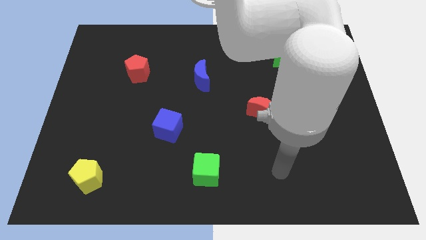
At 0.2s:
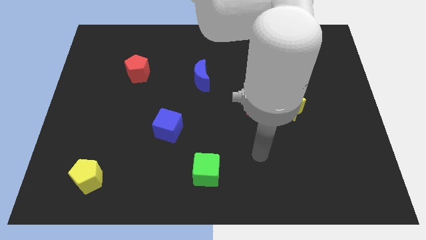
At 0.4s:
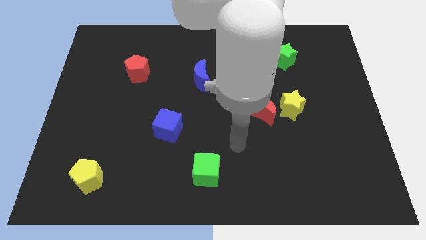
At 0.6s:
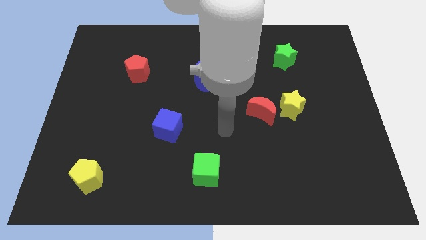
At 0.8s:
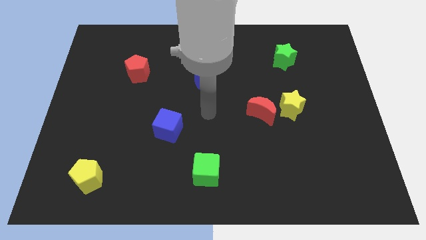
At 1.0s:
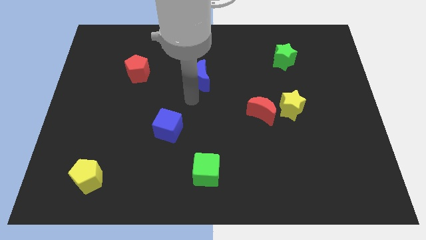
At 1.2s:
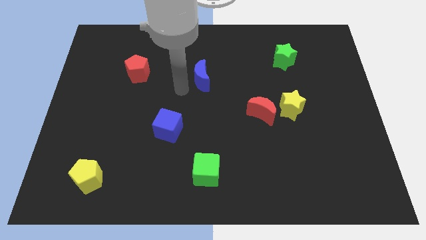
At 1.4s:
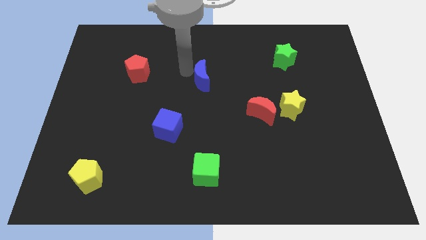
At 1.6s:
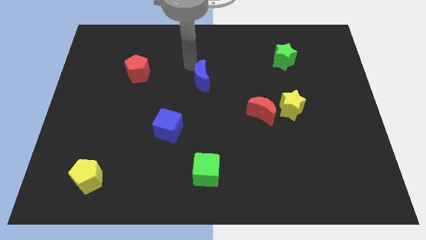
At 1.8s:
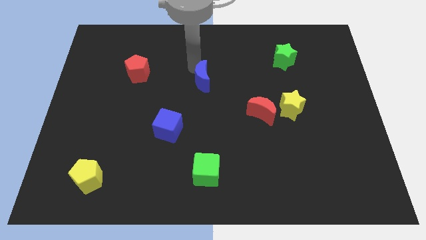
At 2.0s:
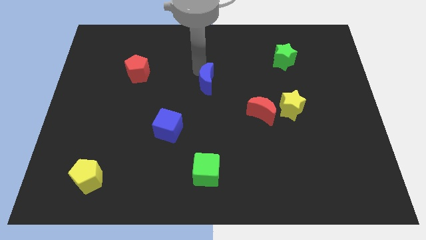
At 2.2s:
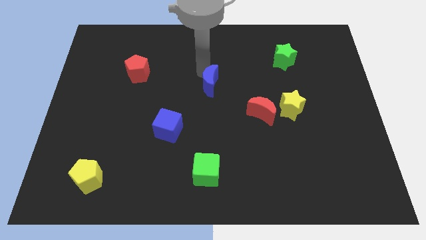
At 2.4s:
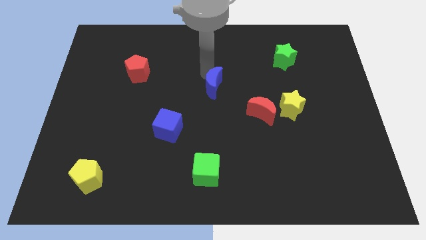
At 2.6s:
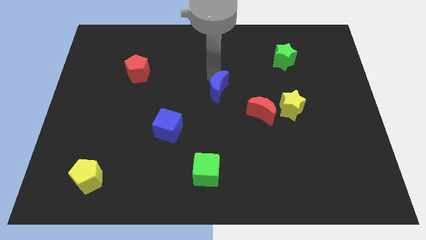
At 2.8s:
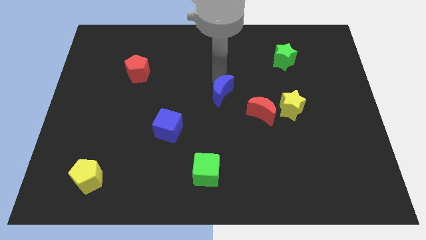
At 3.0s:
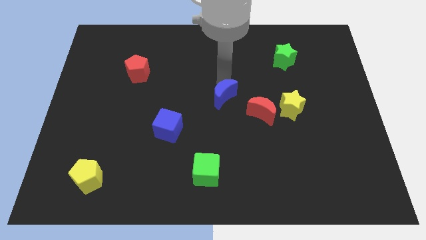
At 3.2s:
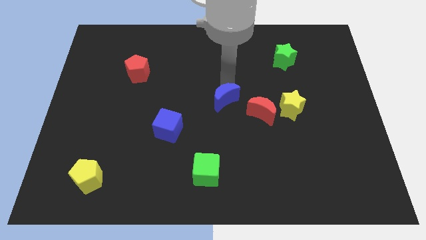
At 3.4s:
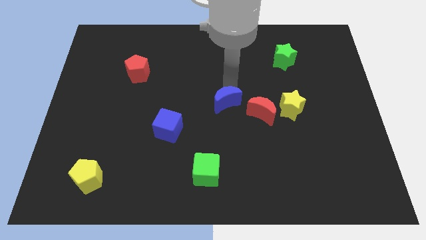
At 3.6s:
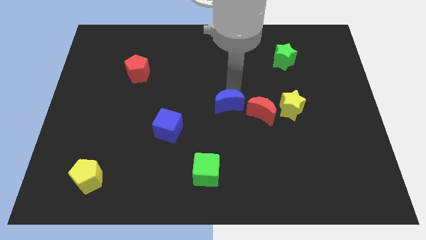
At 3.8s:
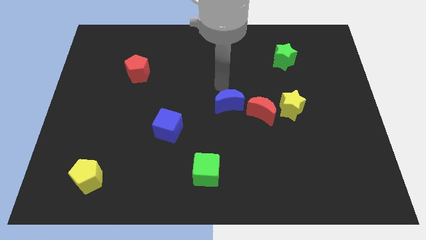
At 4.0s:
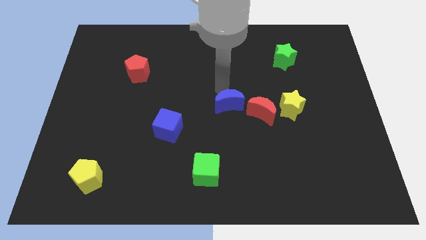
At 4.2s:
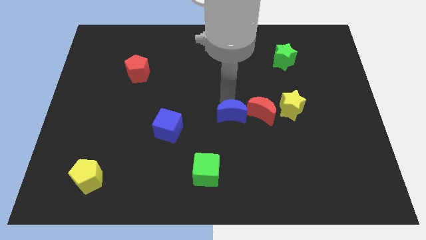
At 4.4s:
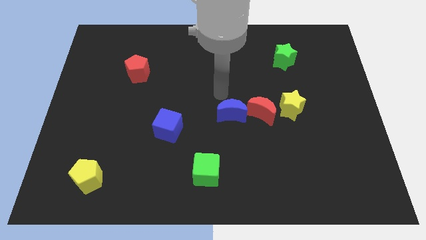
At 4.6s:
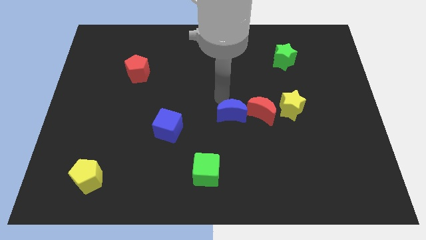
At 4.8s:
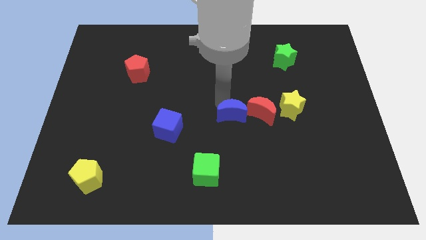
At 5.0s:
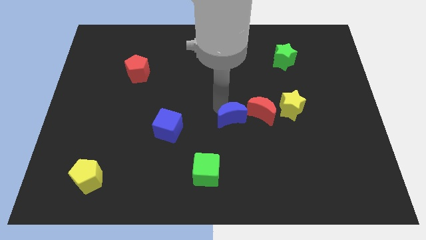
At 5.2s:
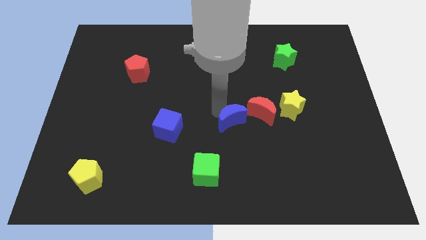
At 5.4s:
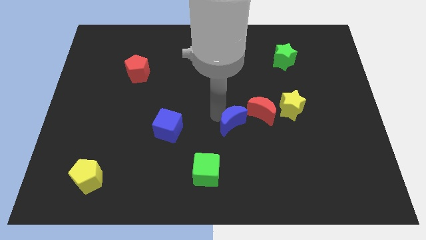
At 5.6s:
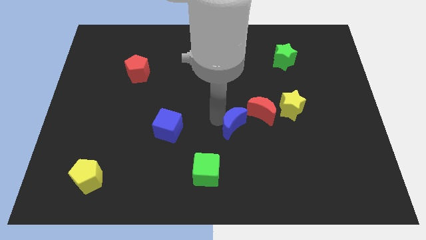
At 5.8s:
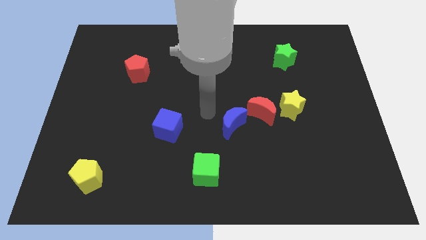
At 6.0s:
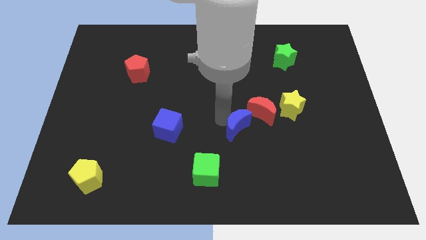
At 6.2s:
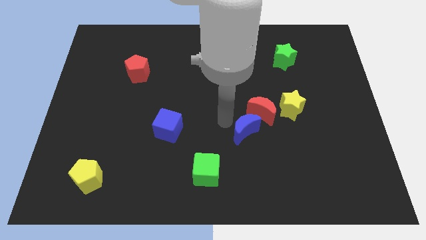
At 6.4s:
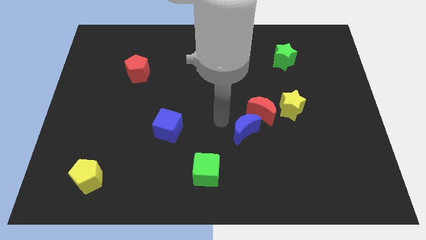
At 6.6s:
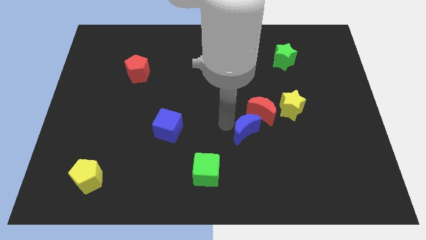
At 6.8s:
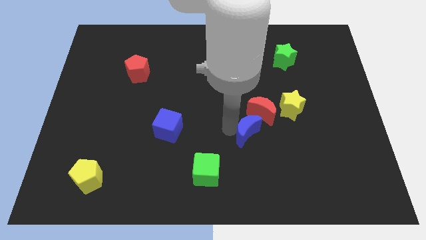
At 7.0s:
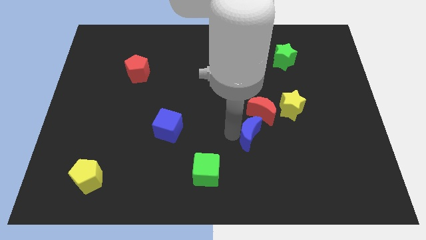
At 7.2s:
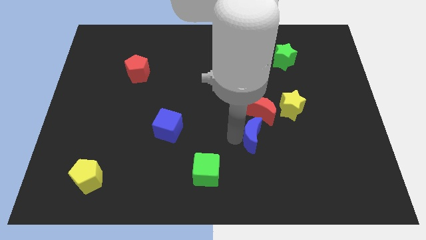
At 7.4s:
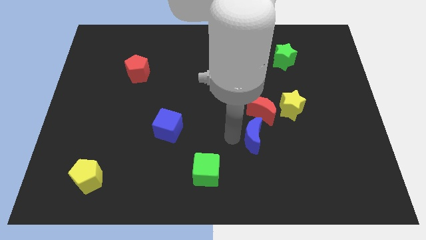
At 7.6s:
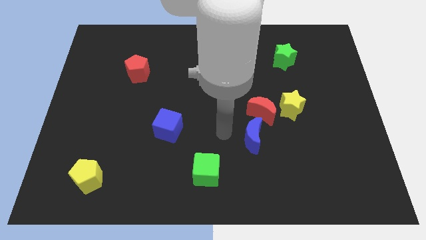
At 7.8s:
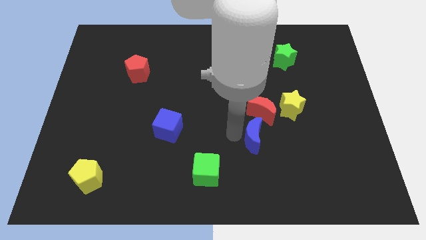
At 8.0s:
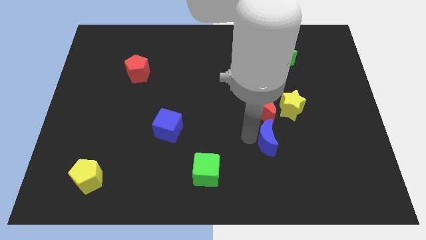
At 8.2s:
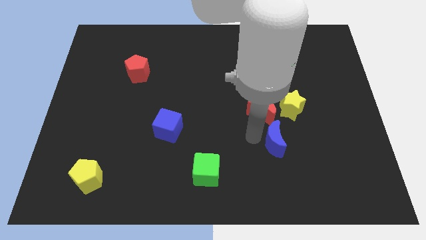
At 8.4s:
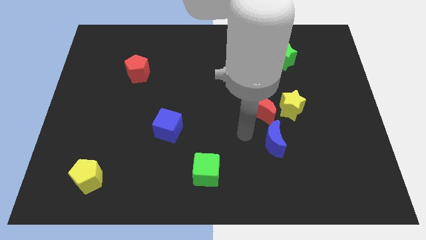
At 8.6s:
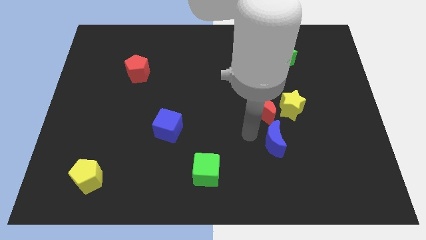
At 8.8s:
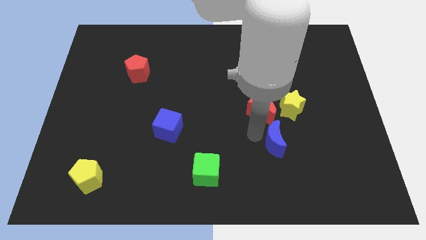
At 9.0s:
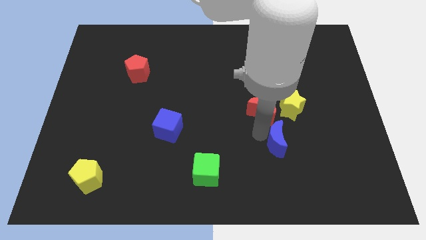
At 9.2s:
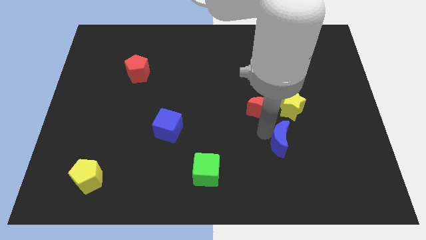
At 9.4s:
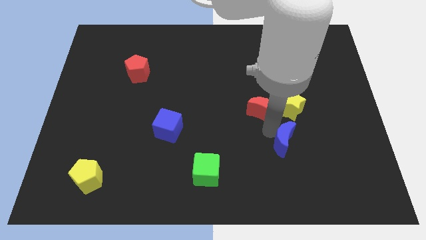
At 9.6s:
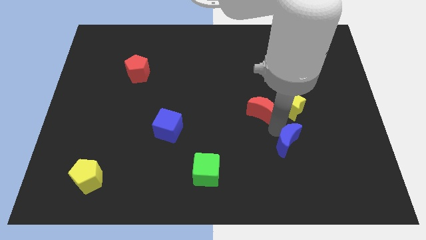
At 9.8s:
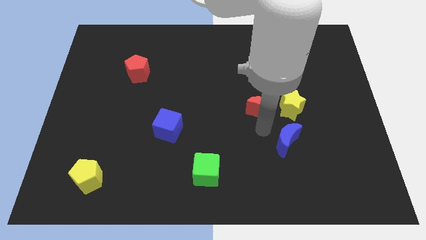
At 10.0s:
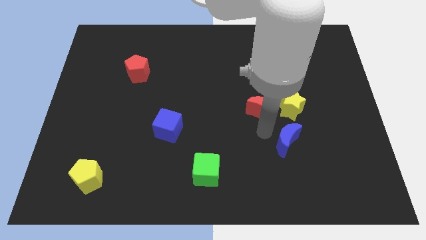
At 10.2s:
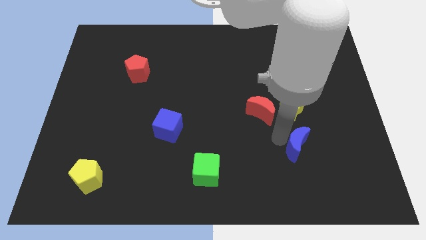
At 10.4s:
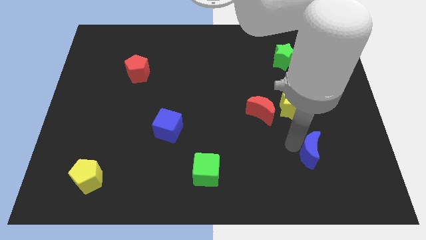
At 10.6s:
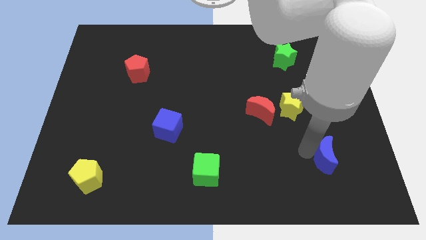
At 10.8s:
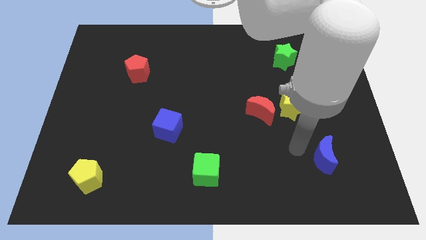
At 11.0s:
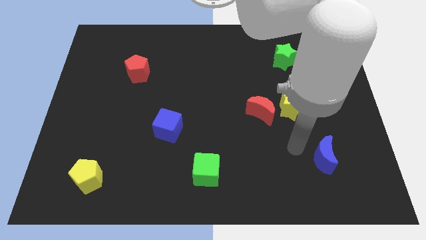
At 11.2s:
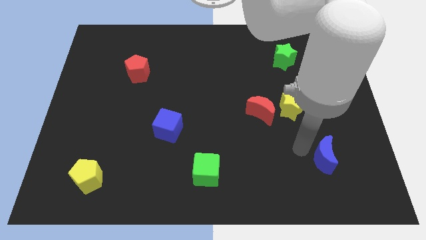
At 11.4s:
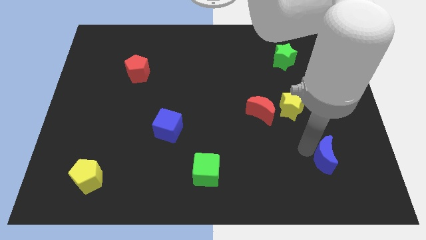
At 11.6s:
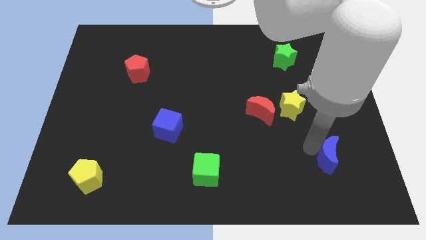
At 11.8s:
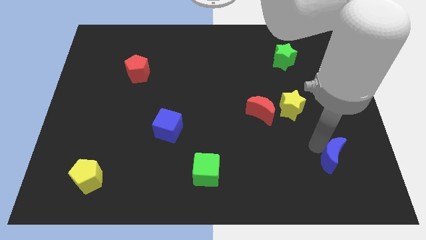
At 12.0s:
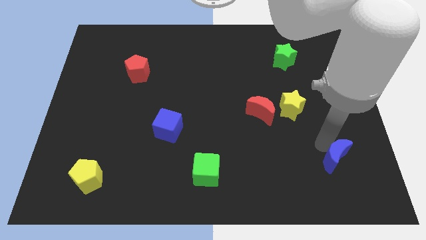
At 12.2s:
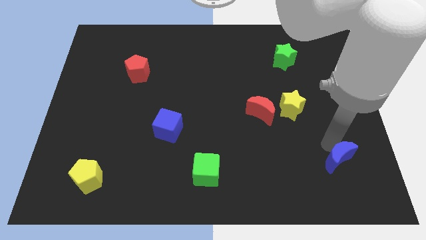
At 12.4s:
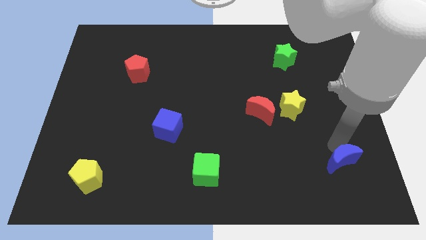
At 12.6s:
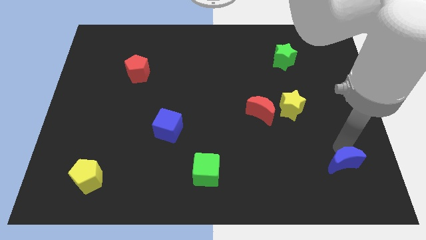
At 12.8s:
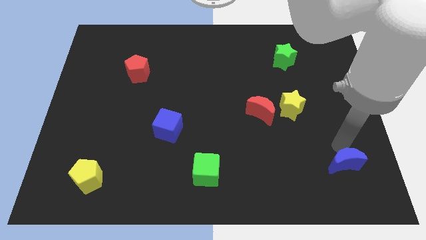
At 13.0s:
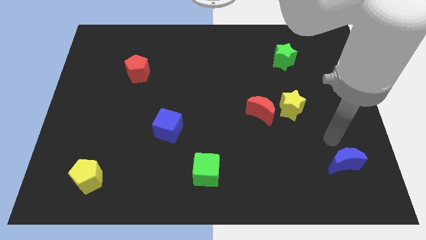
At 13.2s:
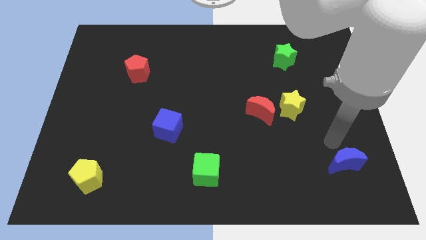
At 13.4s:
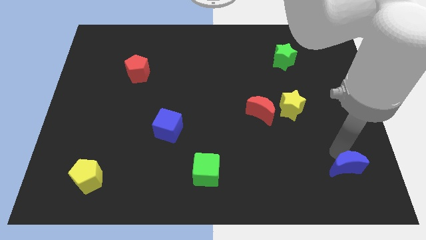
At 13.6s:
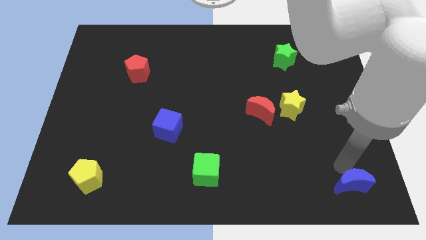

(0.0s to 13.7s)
push the blue moon to the bottom right corner
